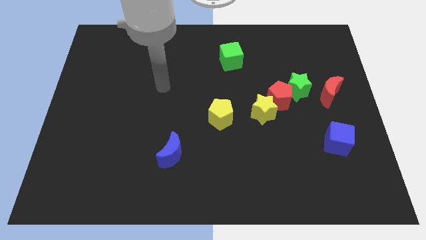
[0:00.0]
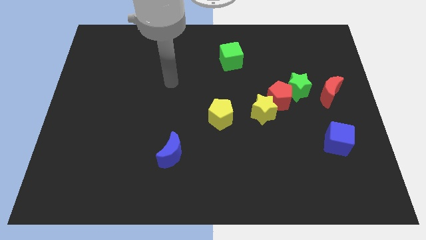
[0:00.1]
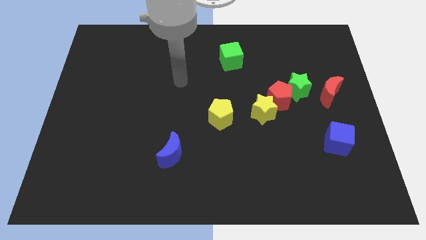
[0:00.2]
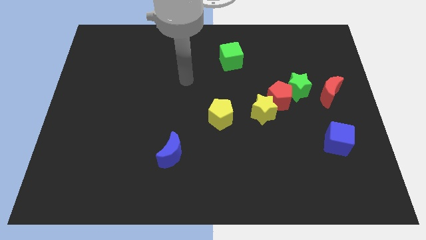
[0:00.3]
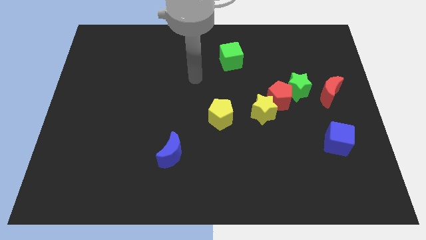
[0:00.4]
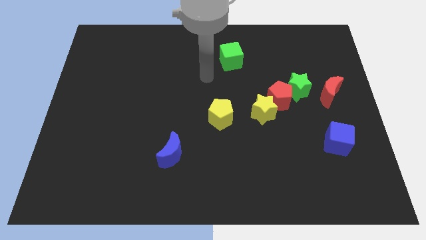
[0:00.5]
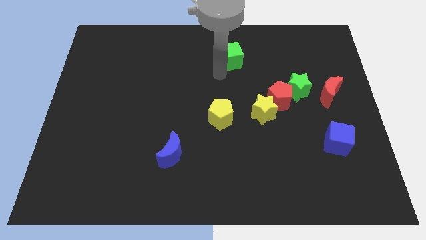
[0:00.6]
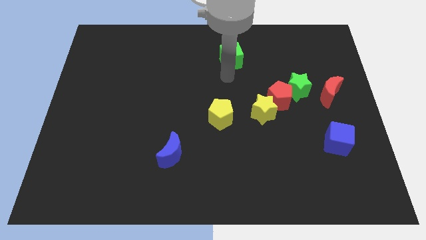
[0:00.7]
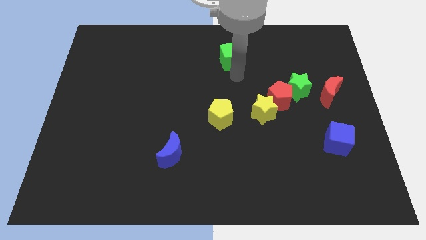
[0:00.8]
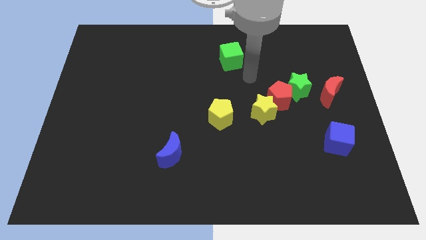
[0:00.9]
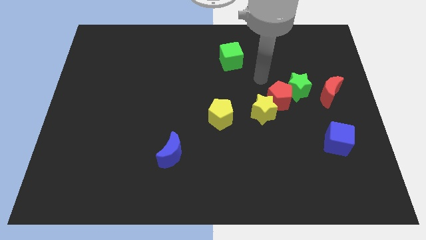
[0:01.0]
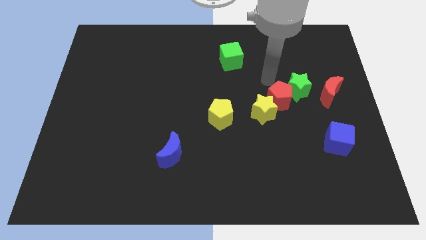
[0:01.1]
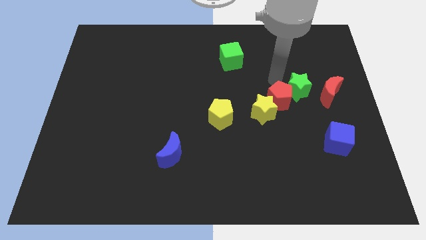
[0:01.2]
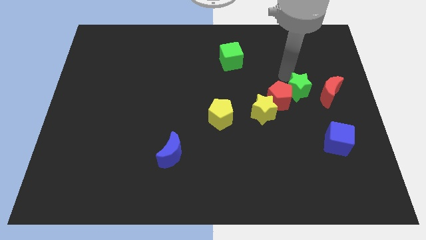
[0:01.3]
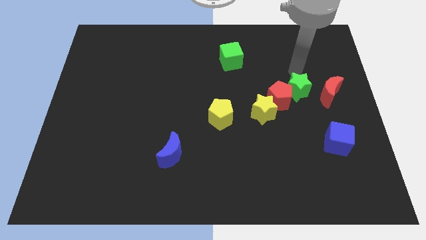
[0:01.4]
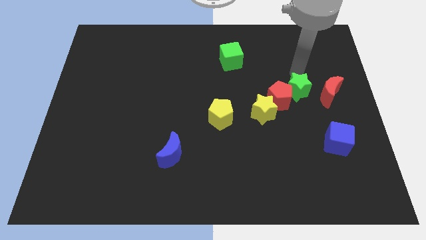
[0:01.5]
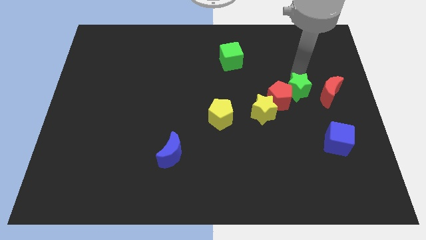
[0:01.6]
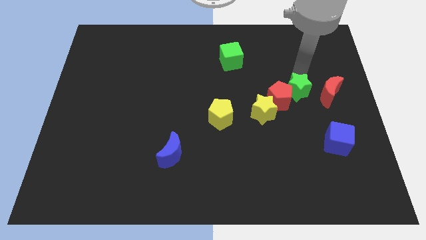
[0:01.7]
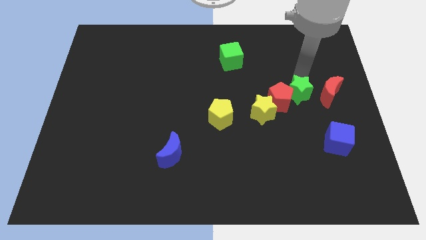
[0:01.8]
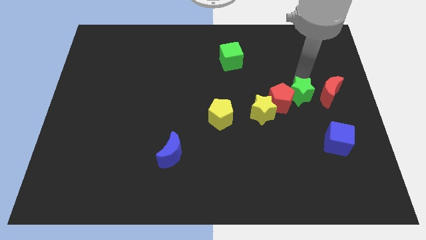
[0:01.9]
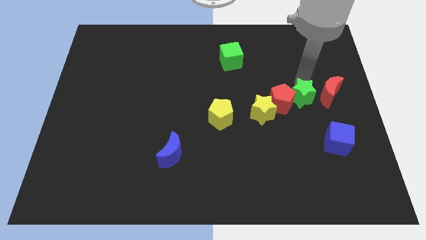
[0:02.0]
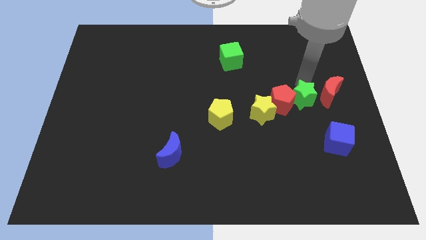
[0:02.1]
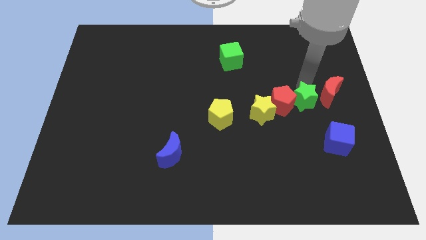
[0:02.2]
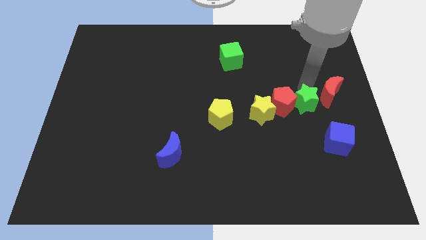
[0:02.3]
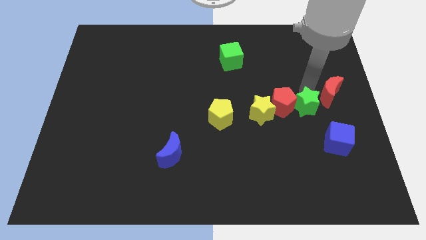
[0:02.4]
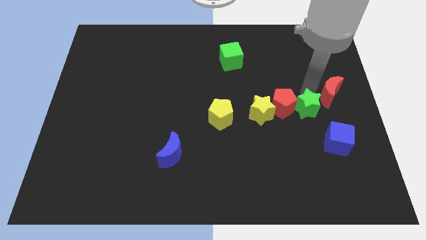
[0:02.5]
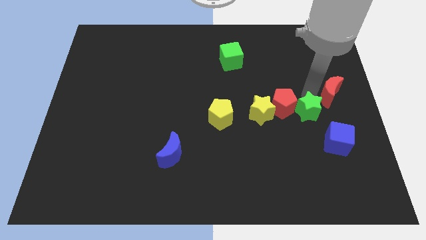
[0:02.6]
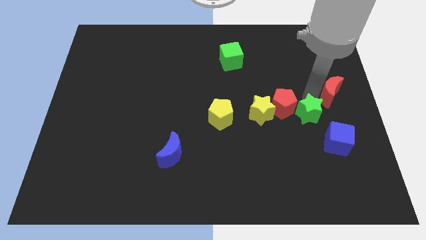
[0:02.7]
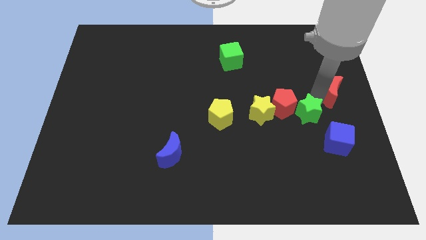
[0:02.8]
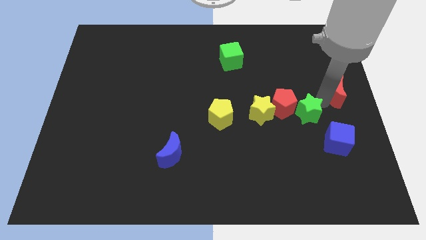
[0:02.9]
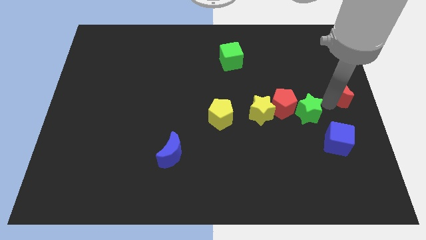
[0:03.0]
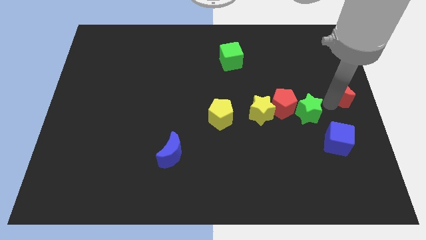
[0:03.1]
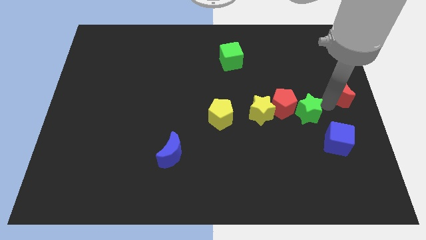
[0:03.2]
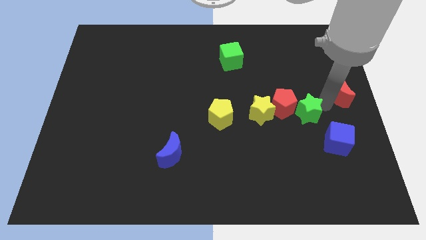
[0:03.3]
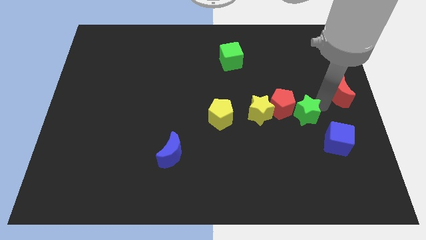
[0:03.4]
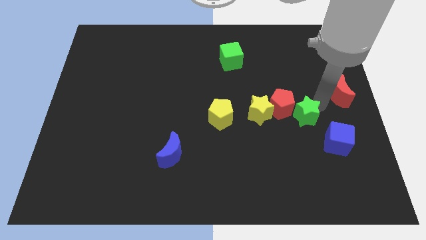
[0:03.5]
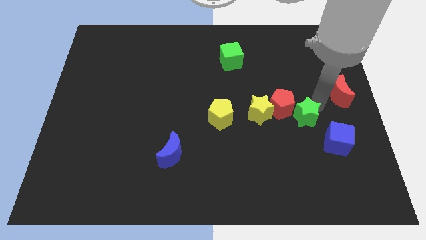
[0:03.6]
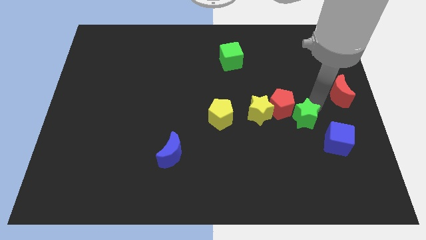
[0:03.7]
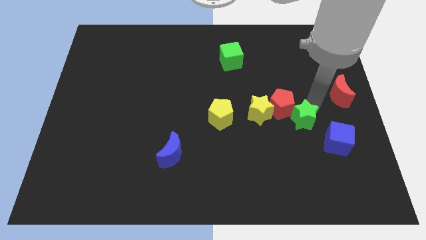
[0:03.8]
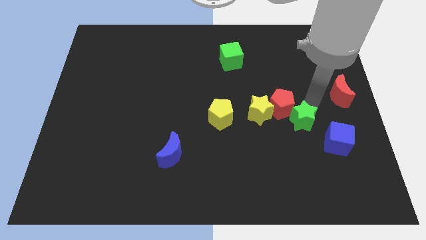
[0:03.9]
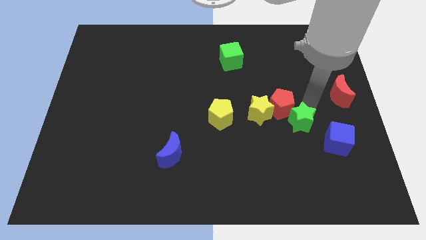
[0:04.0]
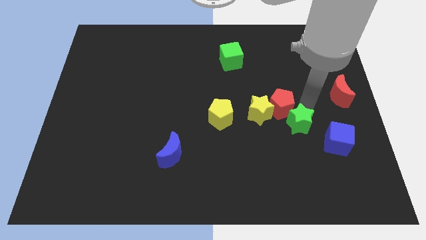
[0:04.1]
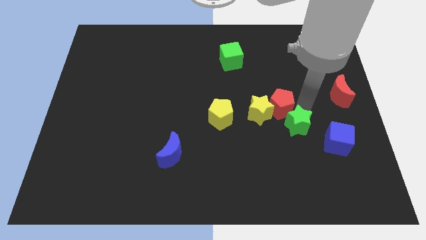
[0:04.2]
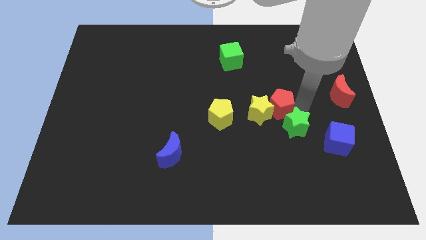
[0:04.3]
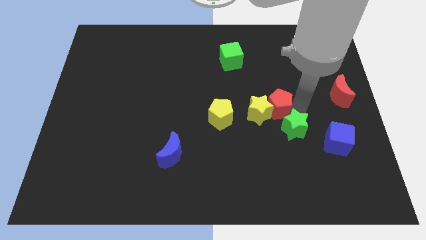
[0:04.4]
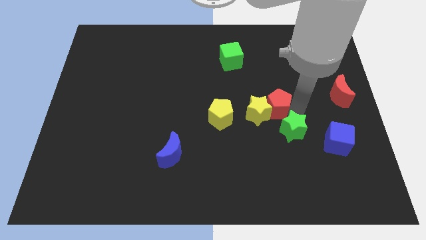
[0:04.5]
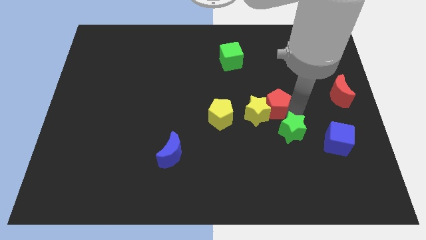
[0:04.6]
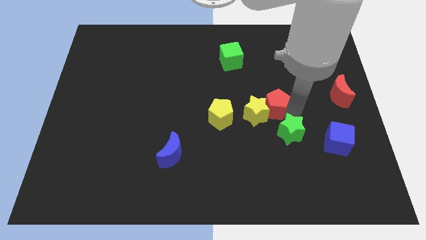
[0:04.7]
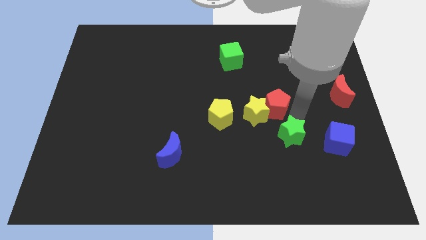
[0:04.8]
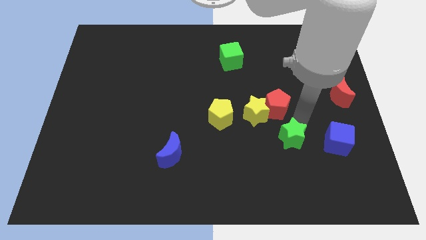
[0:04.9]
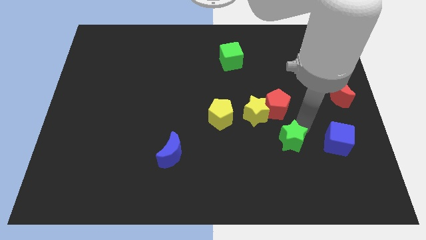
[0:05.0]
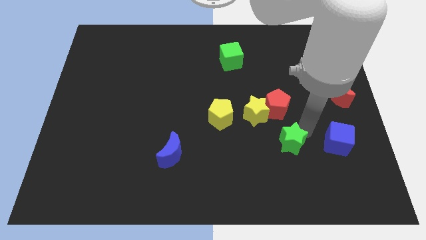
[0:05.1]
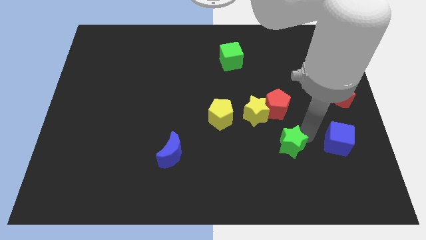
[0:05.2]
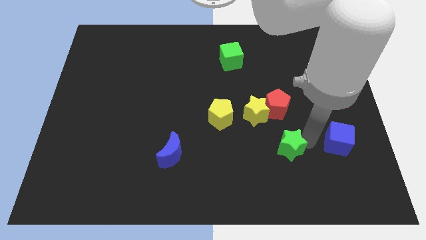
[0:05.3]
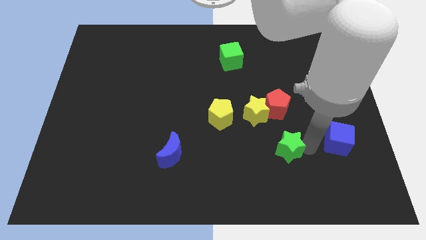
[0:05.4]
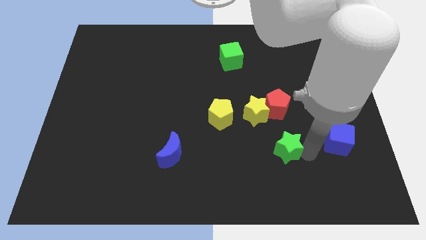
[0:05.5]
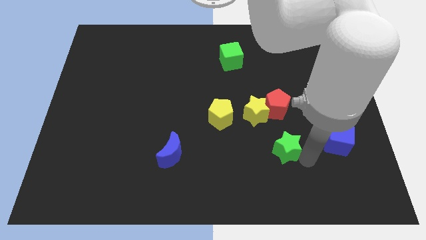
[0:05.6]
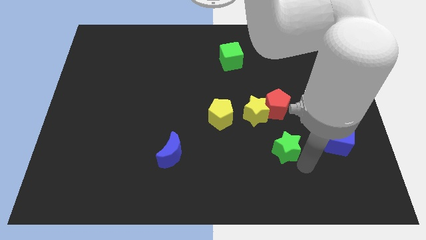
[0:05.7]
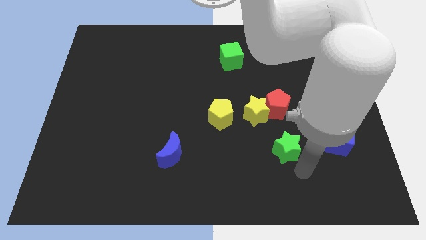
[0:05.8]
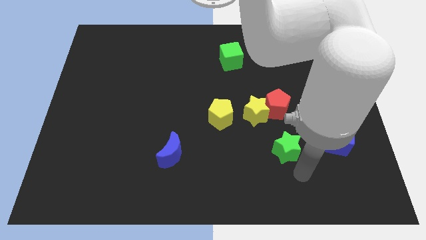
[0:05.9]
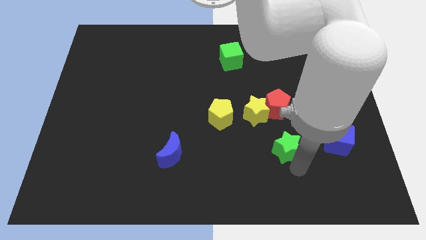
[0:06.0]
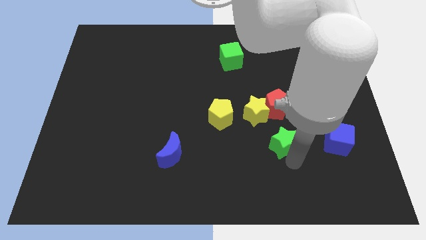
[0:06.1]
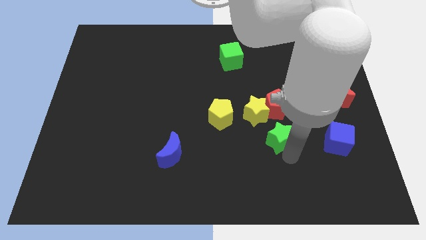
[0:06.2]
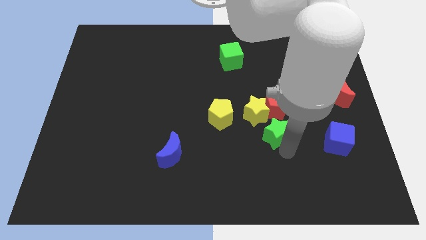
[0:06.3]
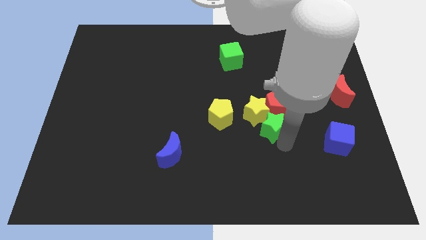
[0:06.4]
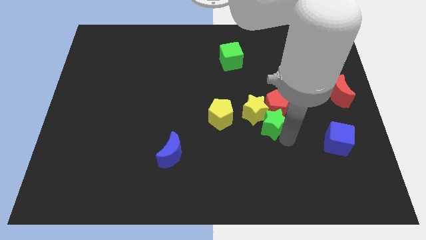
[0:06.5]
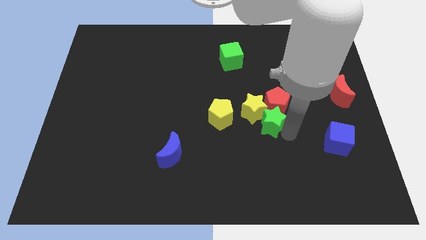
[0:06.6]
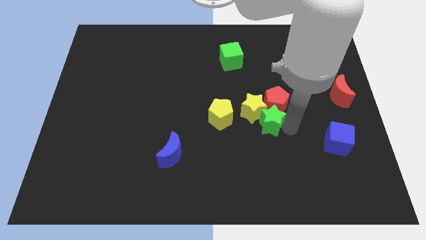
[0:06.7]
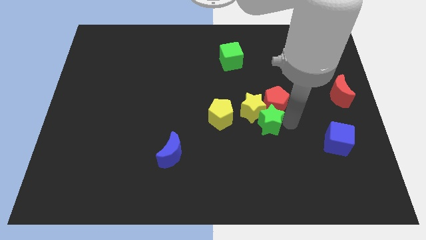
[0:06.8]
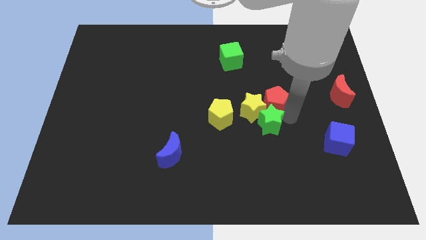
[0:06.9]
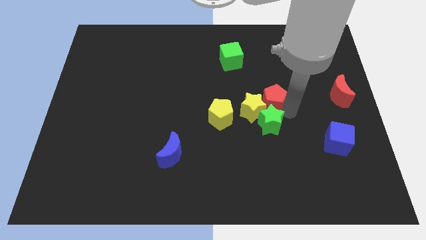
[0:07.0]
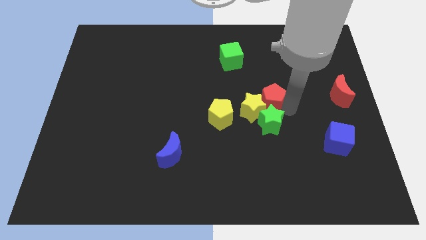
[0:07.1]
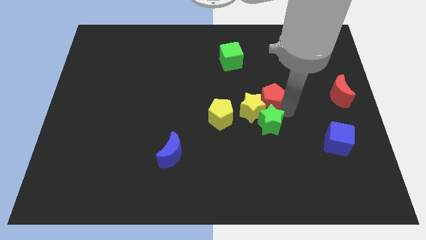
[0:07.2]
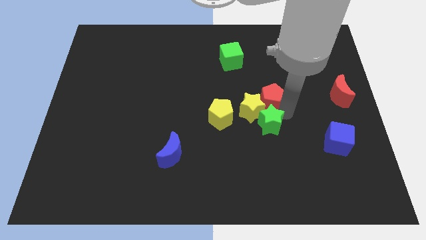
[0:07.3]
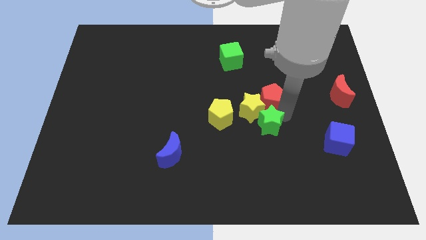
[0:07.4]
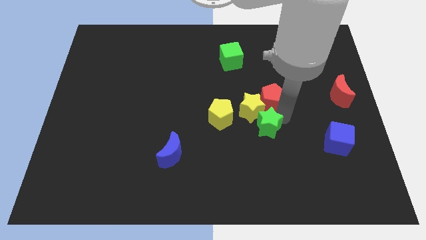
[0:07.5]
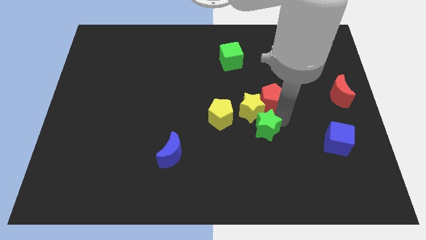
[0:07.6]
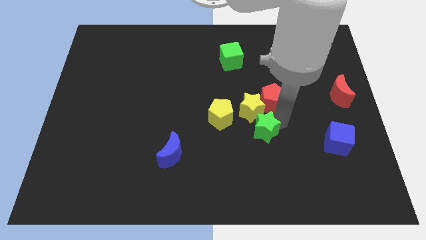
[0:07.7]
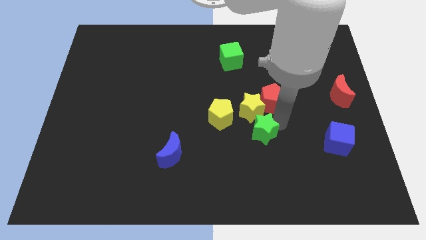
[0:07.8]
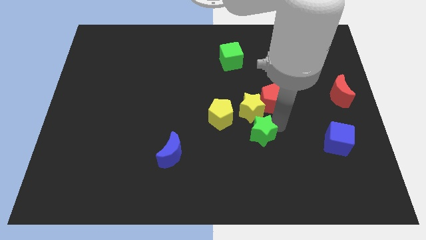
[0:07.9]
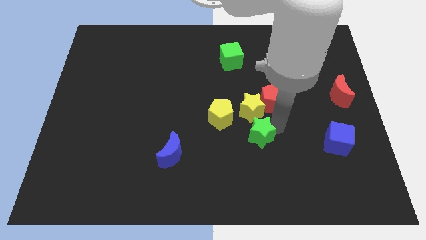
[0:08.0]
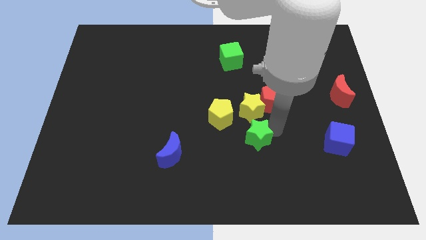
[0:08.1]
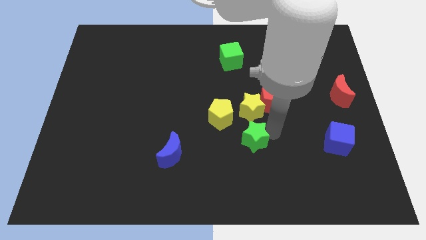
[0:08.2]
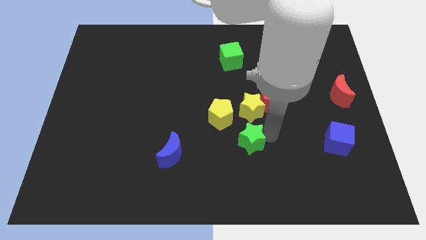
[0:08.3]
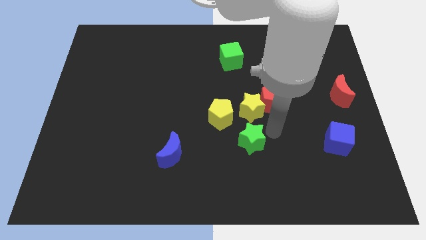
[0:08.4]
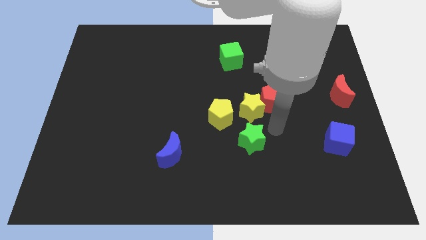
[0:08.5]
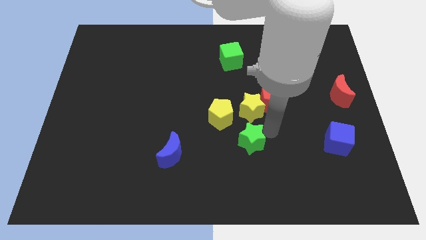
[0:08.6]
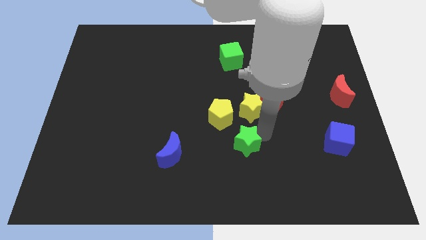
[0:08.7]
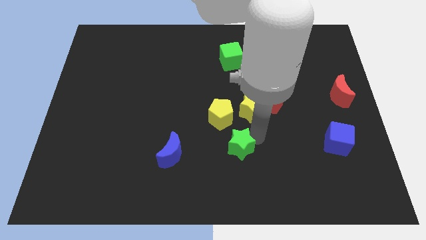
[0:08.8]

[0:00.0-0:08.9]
push the green star just right of the blue moon
